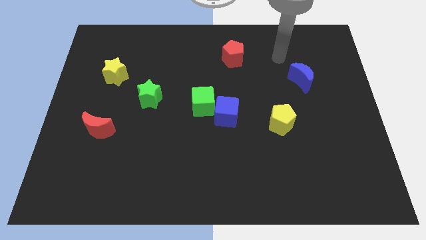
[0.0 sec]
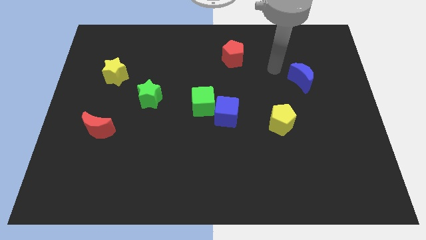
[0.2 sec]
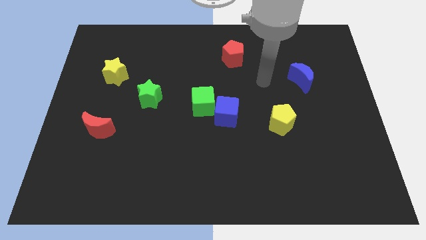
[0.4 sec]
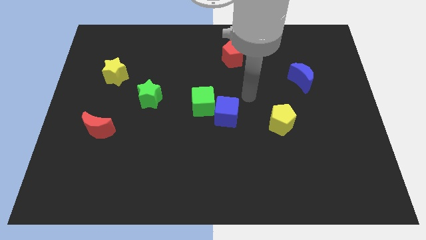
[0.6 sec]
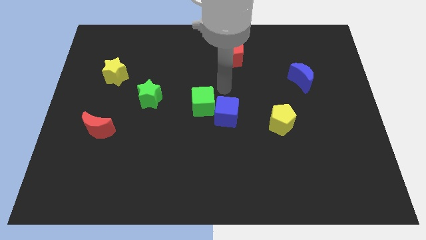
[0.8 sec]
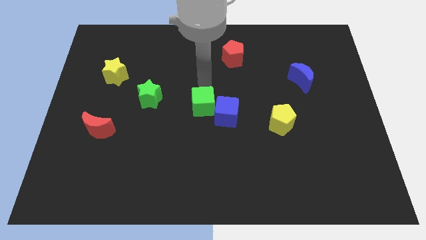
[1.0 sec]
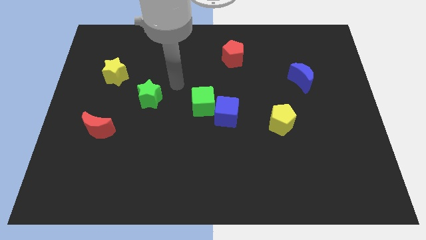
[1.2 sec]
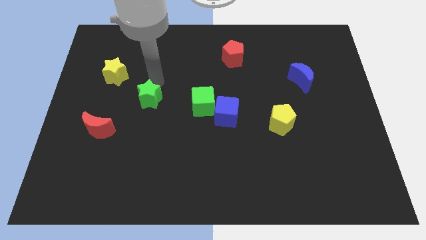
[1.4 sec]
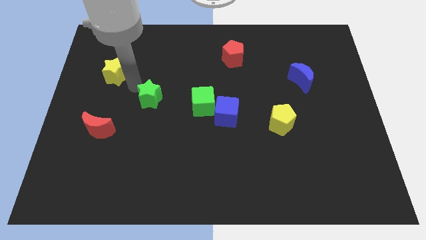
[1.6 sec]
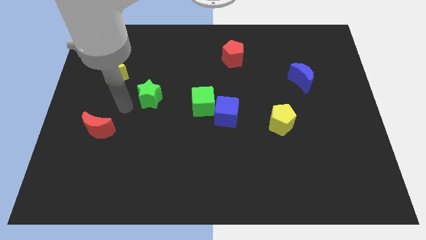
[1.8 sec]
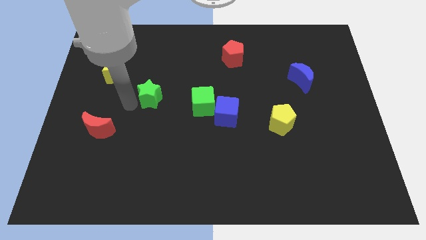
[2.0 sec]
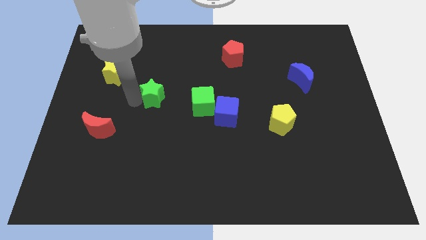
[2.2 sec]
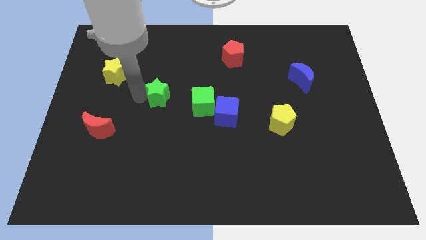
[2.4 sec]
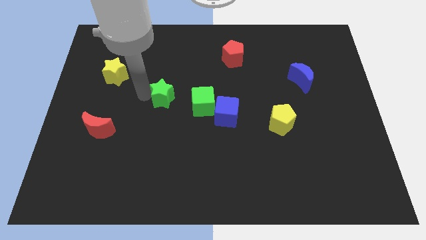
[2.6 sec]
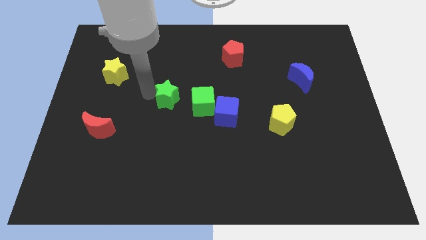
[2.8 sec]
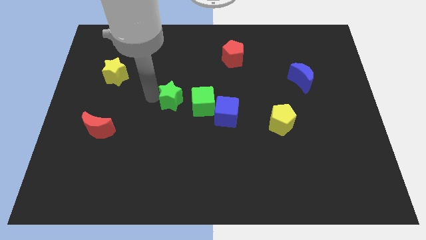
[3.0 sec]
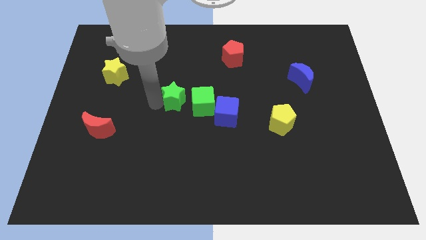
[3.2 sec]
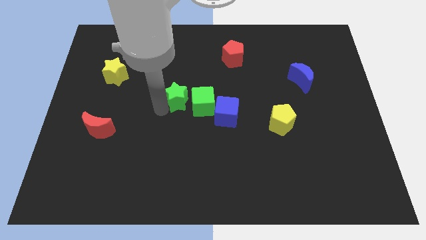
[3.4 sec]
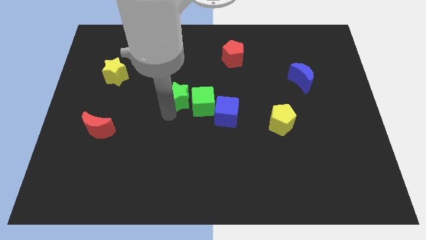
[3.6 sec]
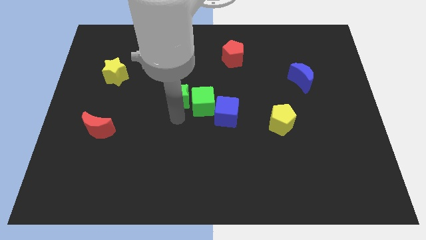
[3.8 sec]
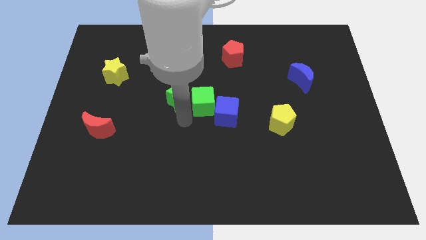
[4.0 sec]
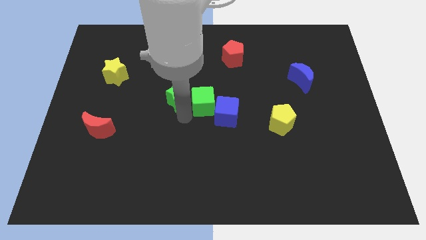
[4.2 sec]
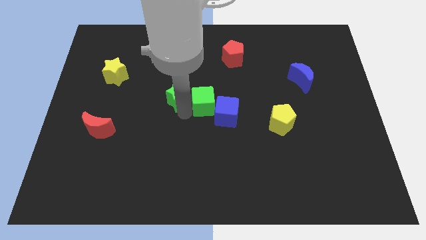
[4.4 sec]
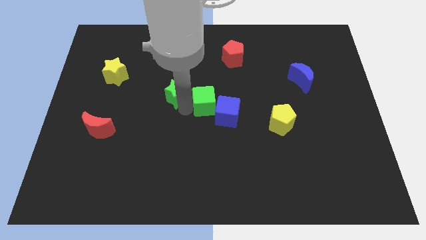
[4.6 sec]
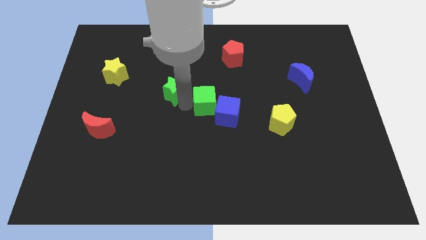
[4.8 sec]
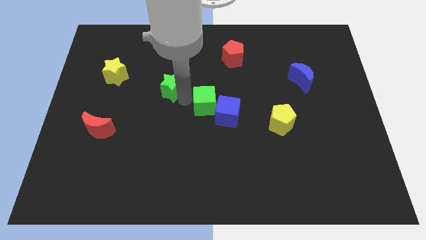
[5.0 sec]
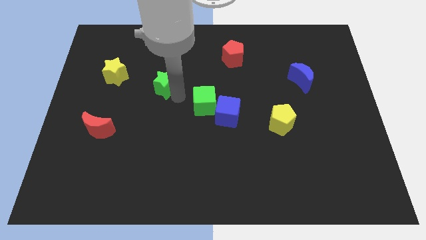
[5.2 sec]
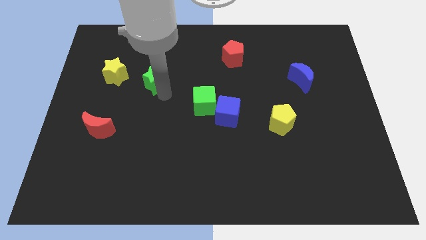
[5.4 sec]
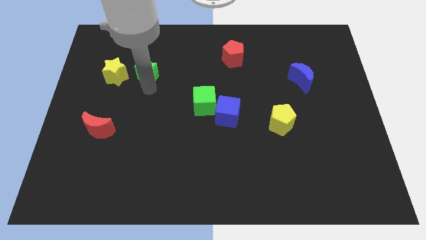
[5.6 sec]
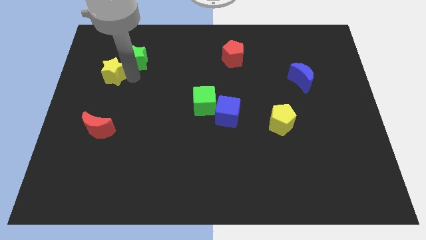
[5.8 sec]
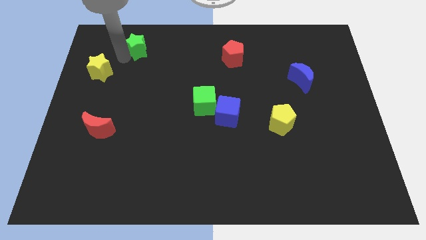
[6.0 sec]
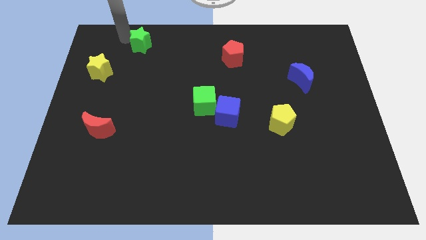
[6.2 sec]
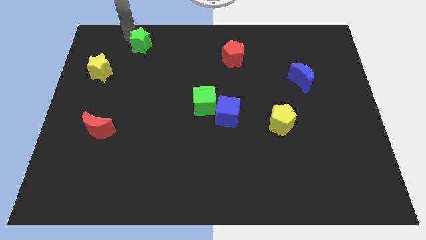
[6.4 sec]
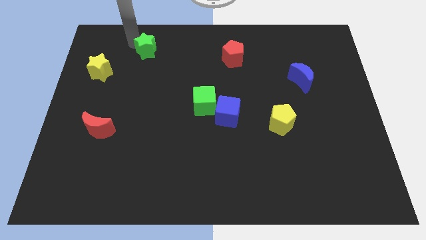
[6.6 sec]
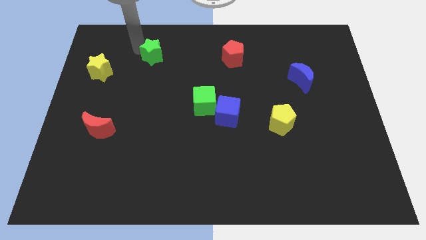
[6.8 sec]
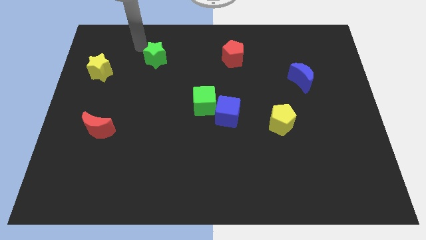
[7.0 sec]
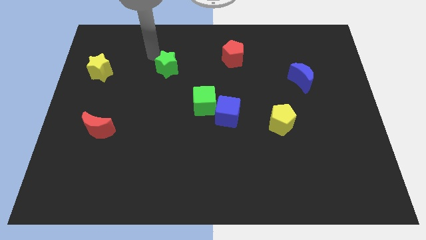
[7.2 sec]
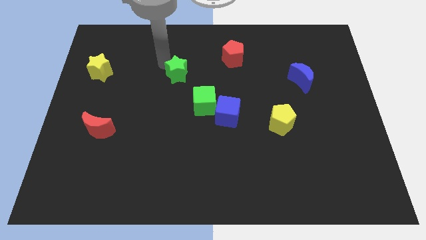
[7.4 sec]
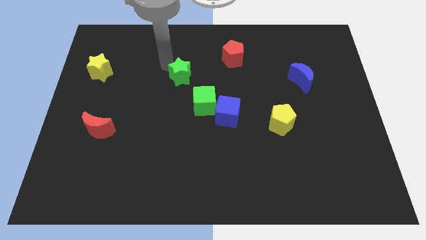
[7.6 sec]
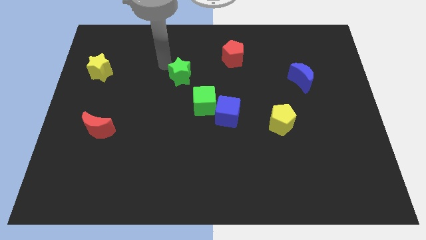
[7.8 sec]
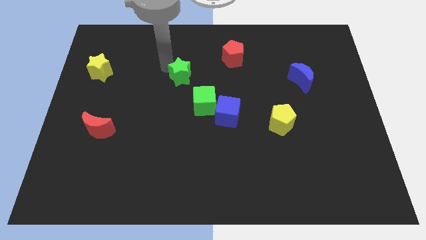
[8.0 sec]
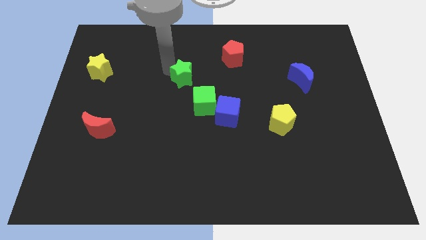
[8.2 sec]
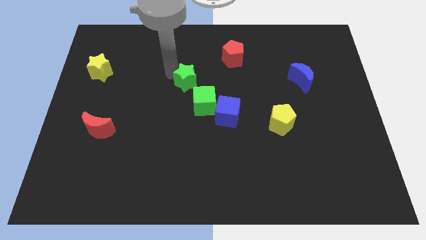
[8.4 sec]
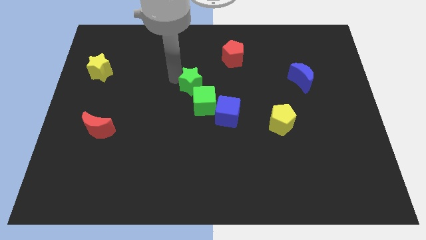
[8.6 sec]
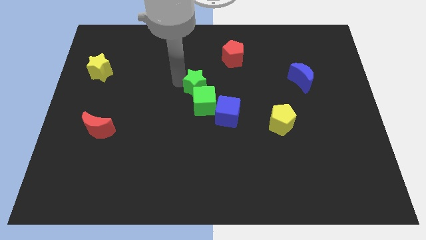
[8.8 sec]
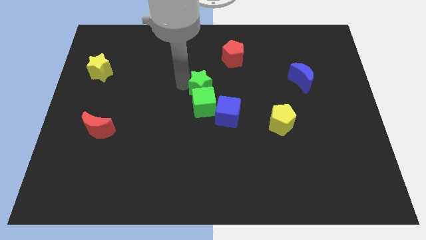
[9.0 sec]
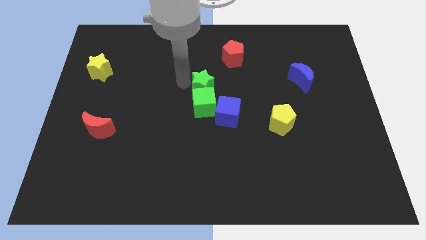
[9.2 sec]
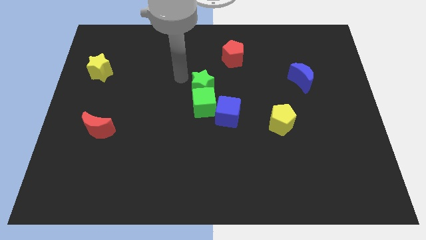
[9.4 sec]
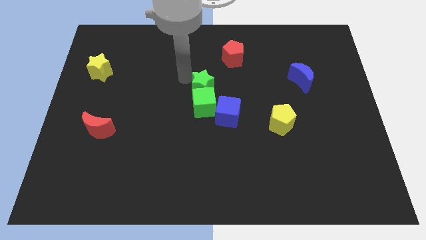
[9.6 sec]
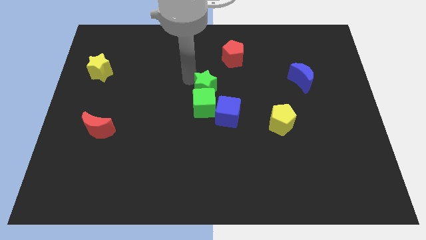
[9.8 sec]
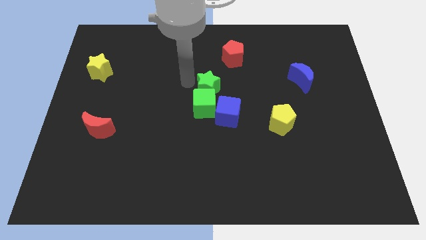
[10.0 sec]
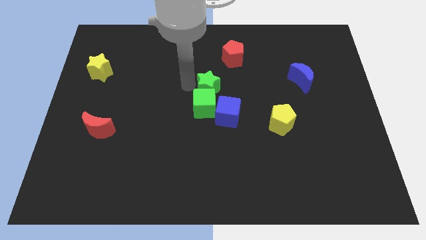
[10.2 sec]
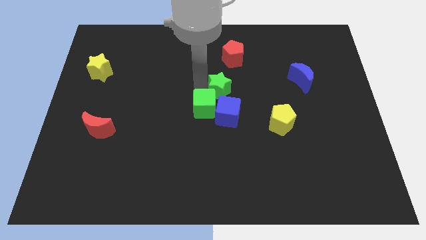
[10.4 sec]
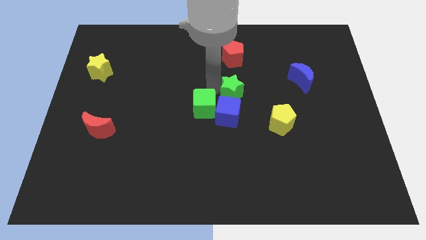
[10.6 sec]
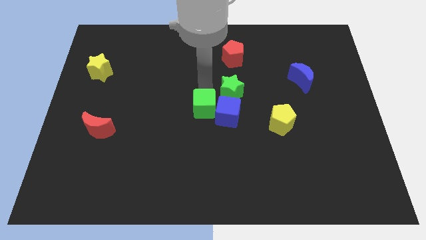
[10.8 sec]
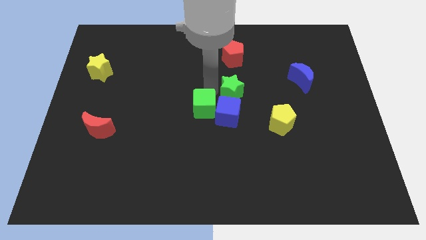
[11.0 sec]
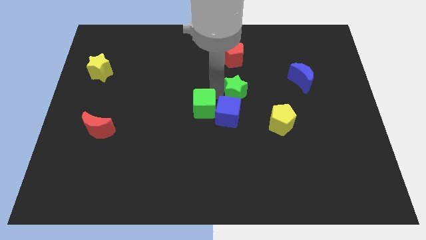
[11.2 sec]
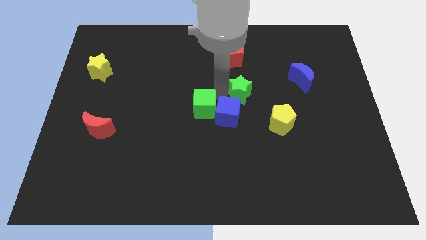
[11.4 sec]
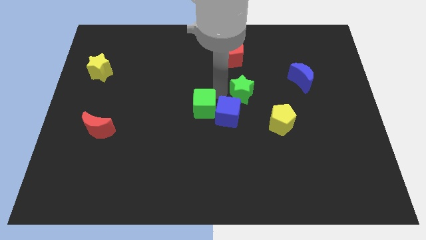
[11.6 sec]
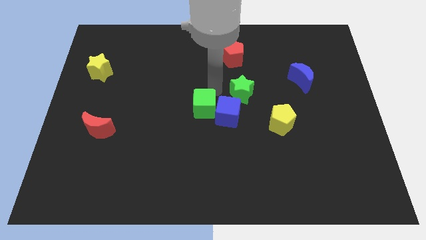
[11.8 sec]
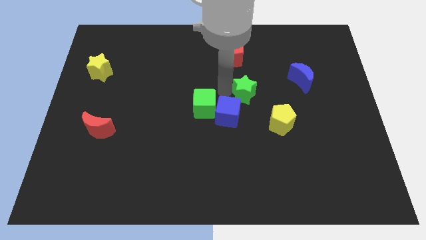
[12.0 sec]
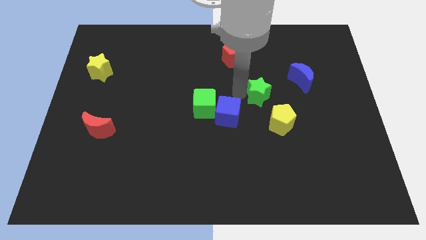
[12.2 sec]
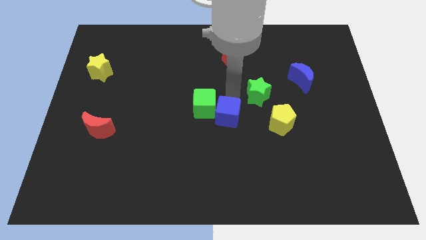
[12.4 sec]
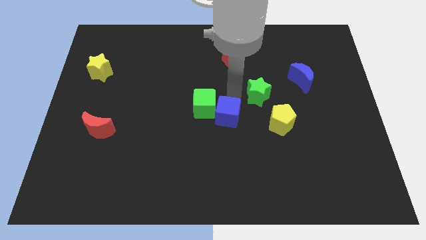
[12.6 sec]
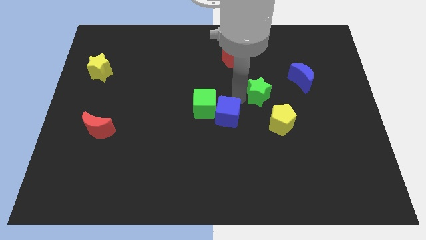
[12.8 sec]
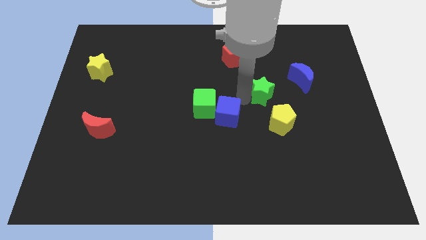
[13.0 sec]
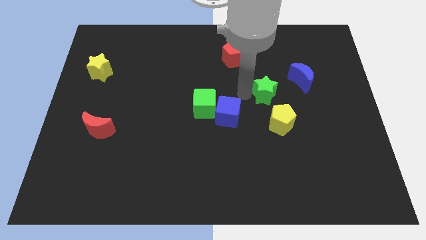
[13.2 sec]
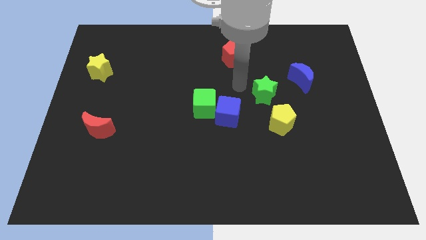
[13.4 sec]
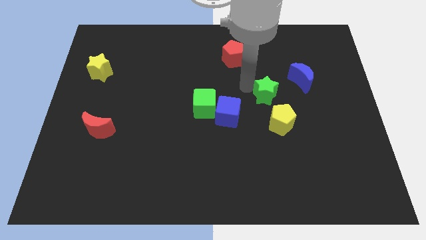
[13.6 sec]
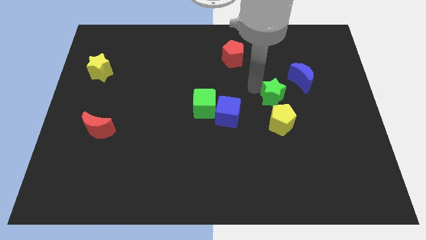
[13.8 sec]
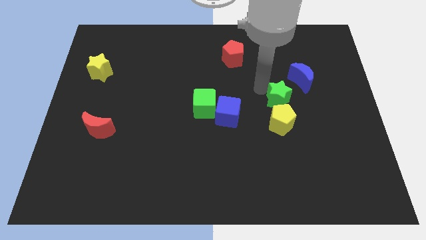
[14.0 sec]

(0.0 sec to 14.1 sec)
push the green star diagonally up and to the right of the yellow pentagon
